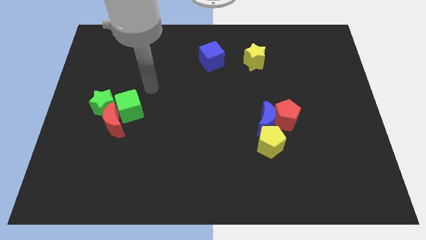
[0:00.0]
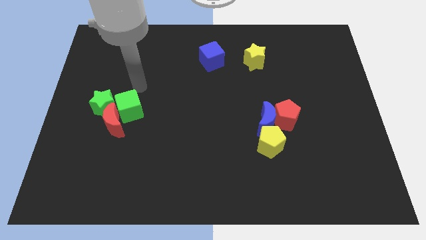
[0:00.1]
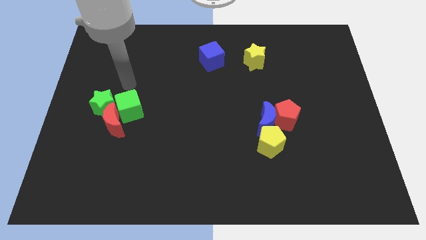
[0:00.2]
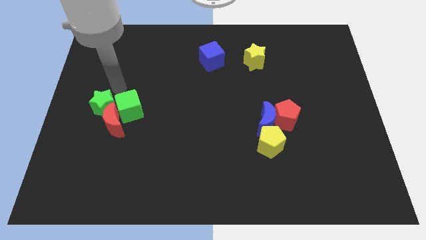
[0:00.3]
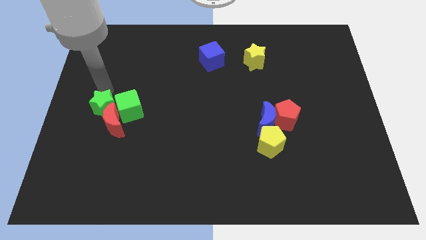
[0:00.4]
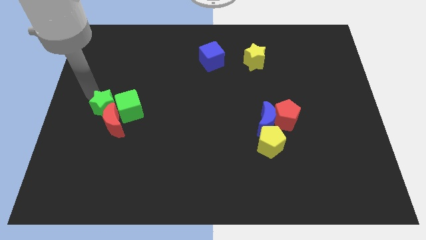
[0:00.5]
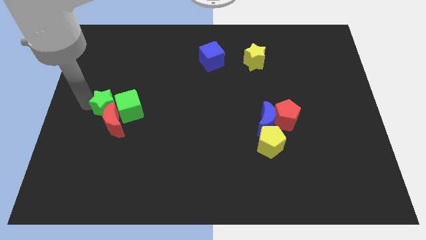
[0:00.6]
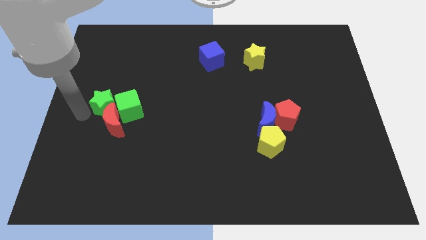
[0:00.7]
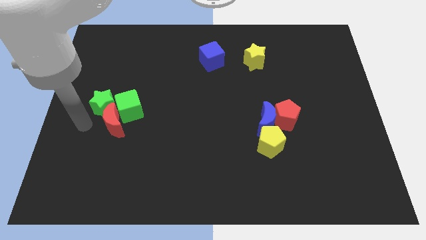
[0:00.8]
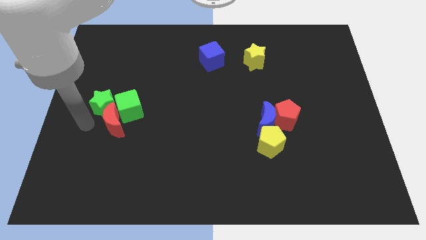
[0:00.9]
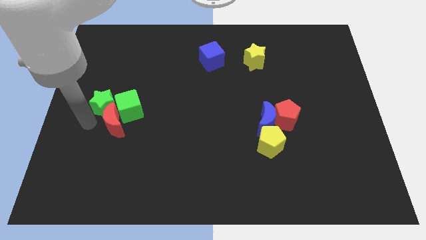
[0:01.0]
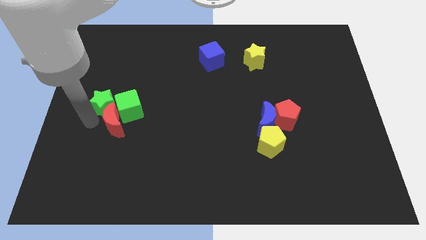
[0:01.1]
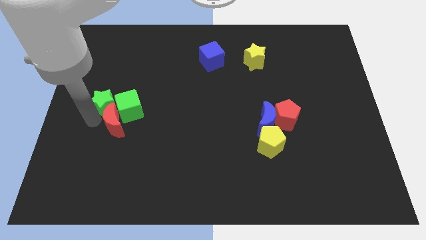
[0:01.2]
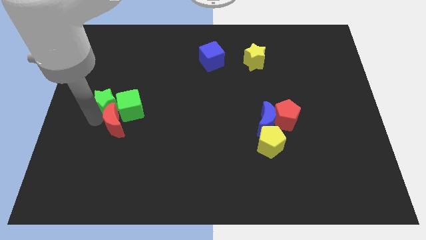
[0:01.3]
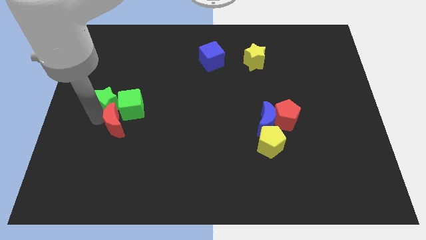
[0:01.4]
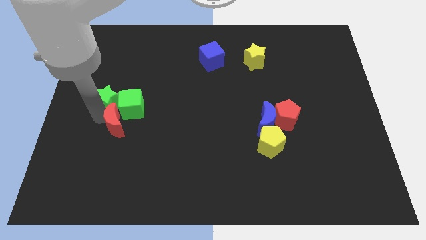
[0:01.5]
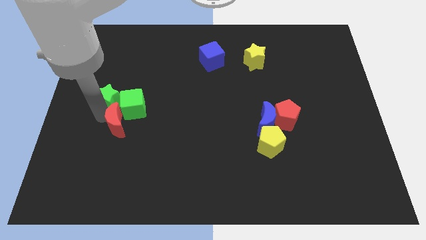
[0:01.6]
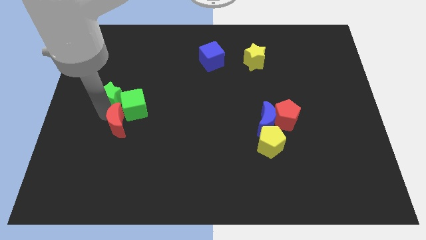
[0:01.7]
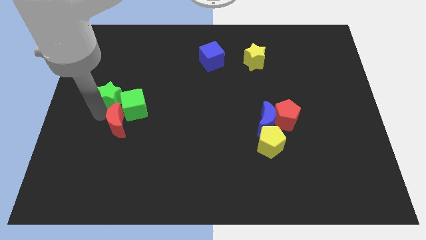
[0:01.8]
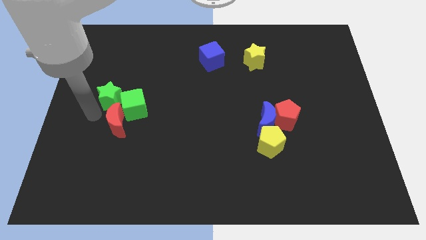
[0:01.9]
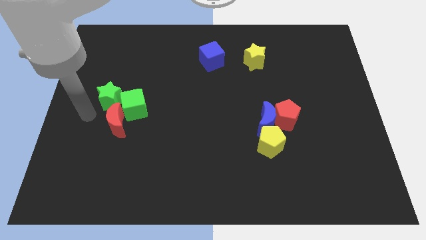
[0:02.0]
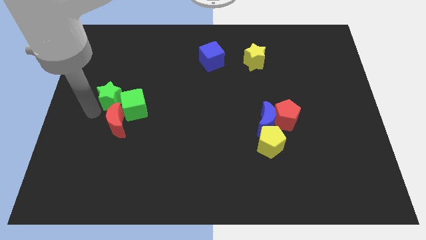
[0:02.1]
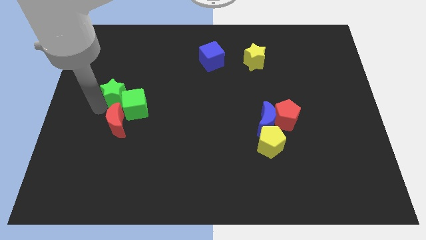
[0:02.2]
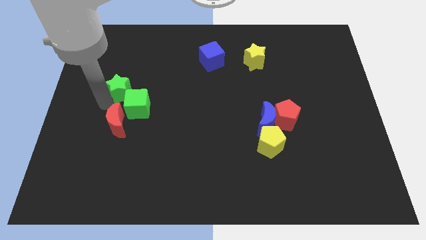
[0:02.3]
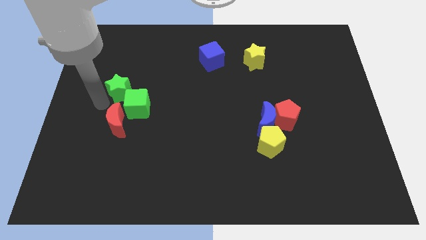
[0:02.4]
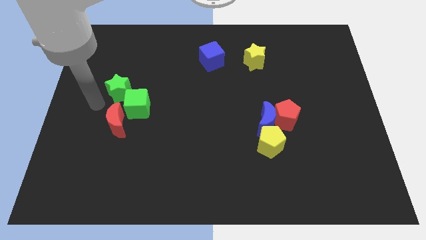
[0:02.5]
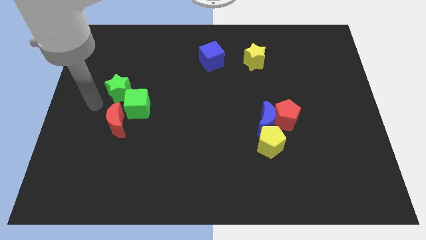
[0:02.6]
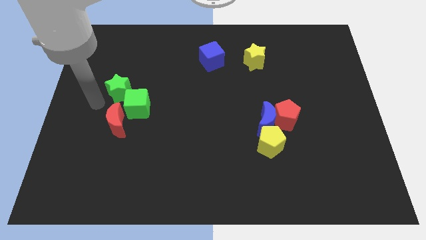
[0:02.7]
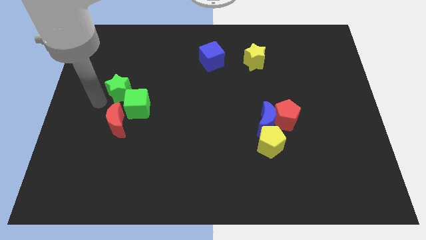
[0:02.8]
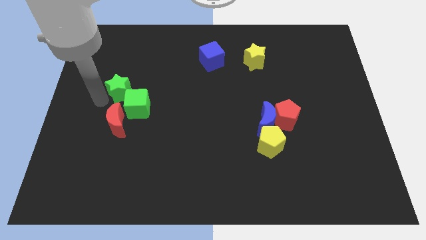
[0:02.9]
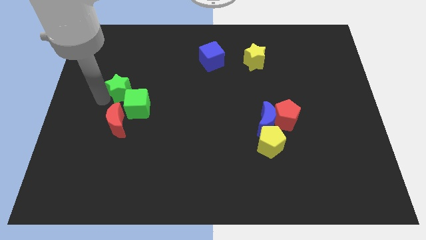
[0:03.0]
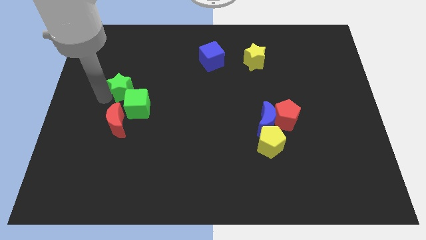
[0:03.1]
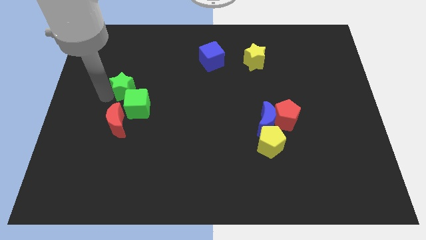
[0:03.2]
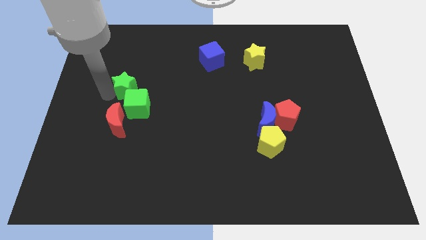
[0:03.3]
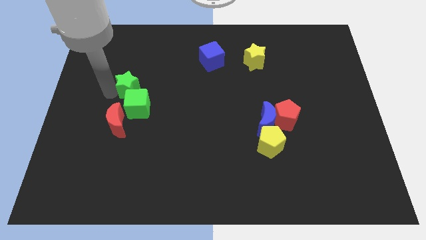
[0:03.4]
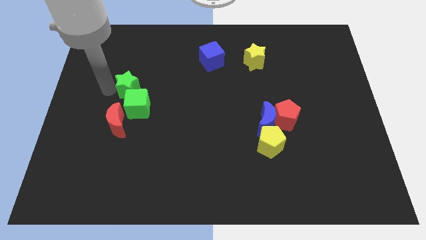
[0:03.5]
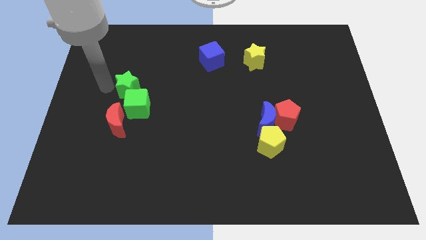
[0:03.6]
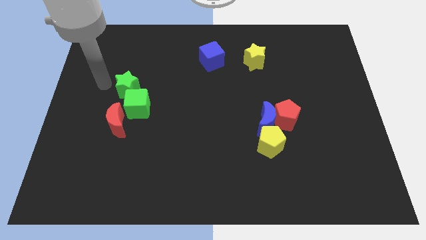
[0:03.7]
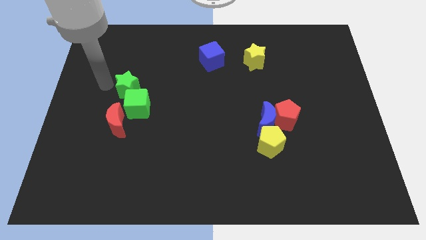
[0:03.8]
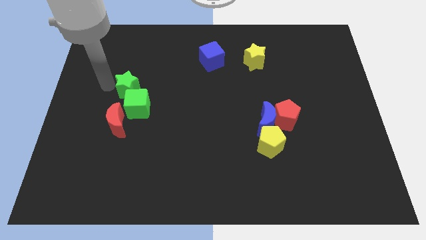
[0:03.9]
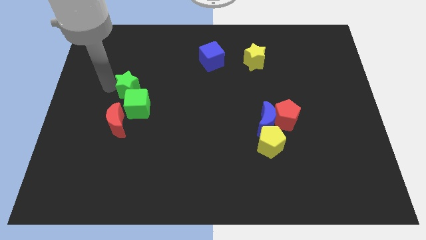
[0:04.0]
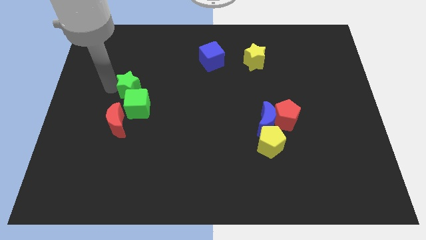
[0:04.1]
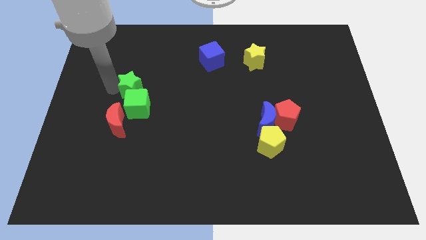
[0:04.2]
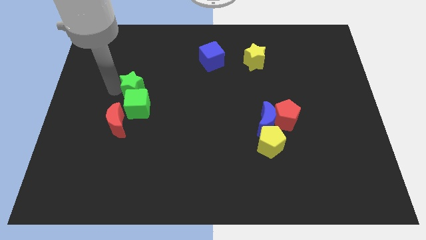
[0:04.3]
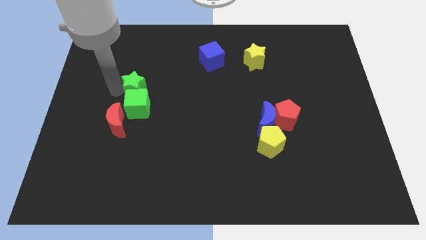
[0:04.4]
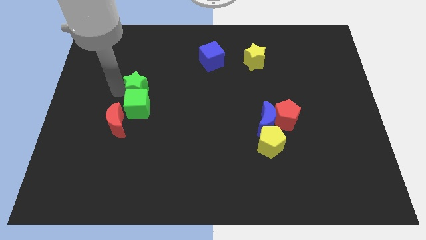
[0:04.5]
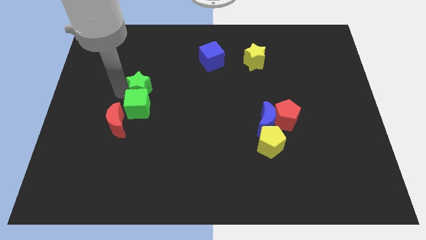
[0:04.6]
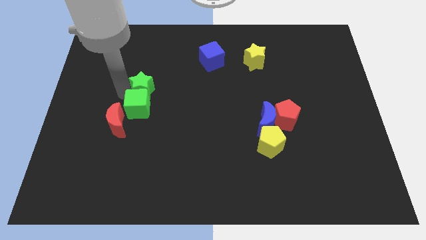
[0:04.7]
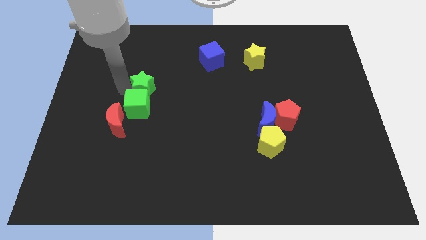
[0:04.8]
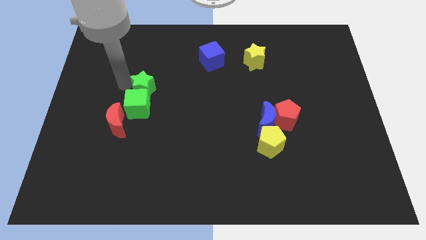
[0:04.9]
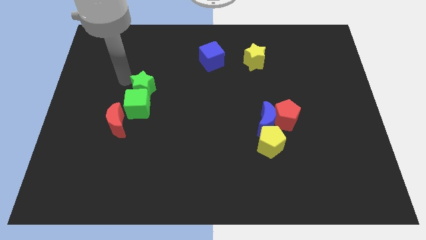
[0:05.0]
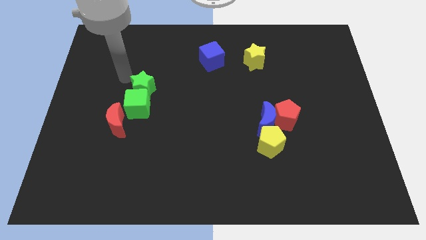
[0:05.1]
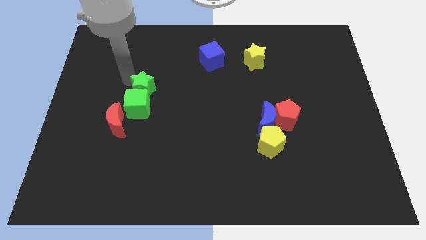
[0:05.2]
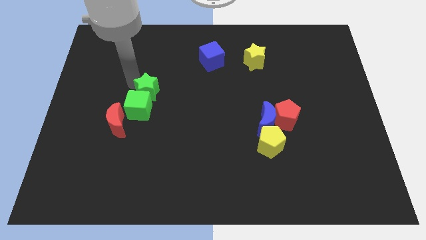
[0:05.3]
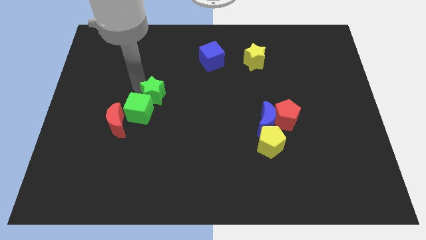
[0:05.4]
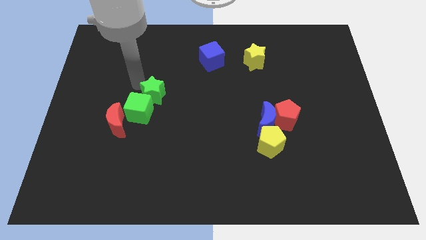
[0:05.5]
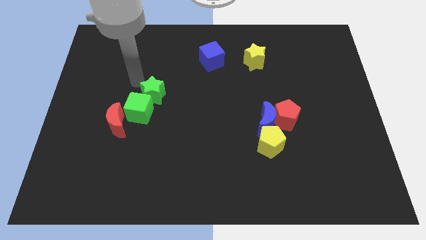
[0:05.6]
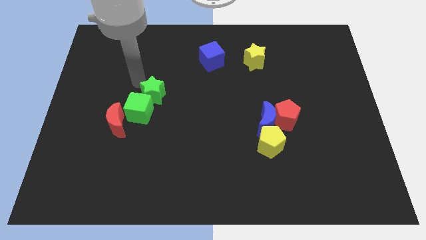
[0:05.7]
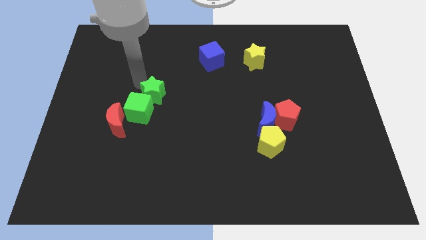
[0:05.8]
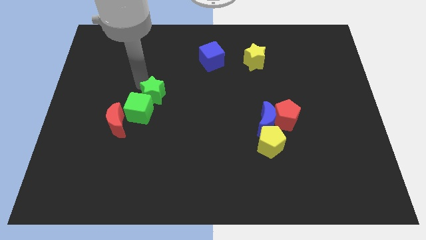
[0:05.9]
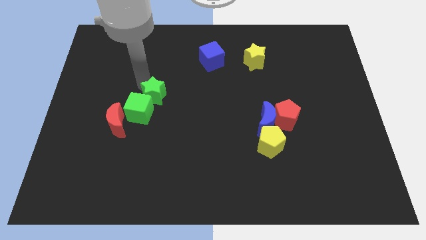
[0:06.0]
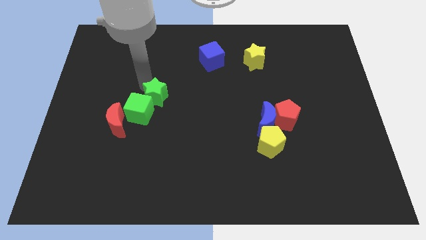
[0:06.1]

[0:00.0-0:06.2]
push the green star to the right side of the green cube

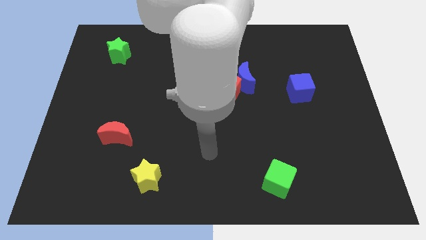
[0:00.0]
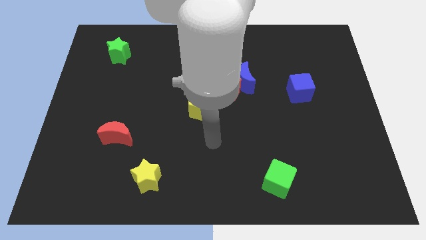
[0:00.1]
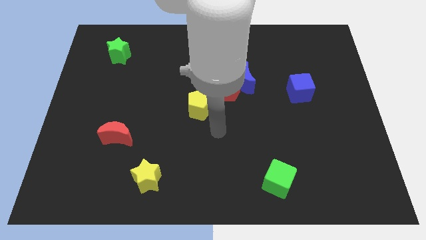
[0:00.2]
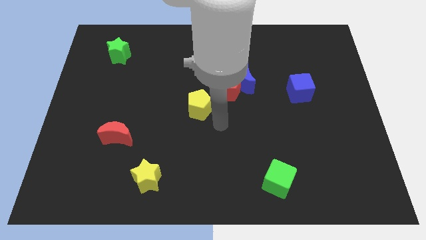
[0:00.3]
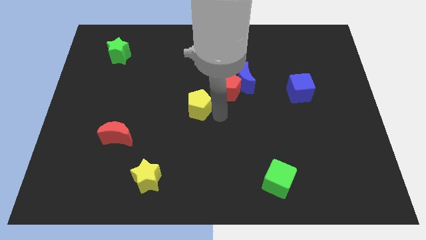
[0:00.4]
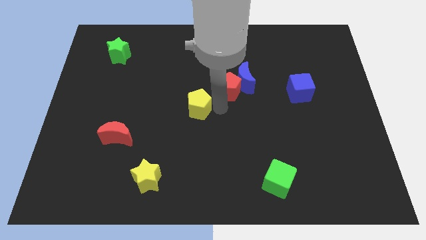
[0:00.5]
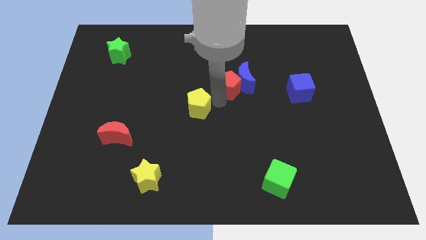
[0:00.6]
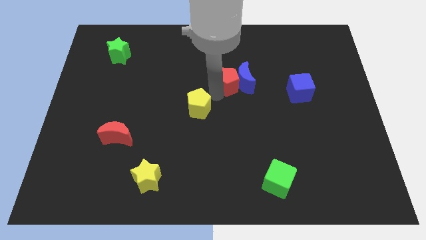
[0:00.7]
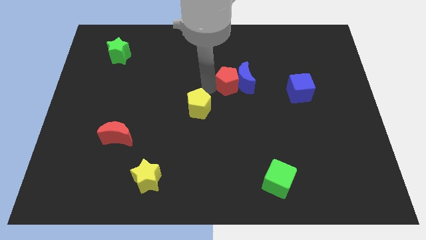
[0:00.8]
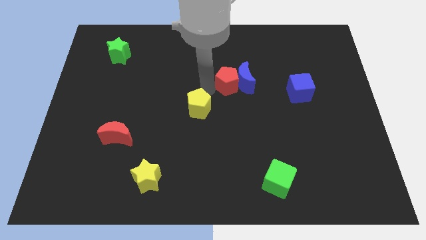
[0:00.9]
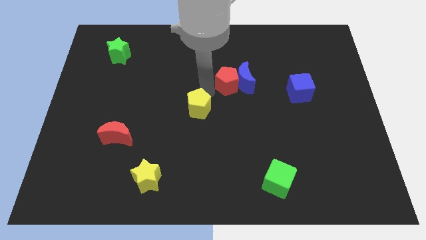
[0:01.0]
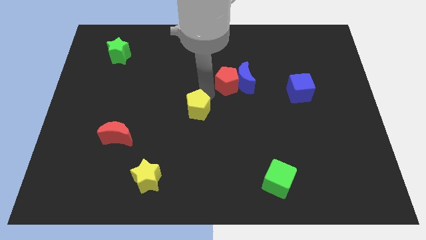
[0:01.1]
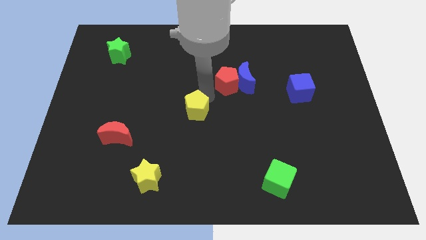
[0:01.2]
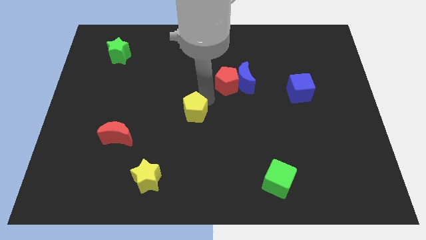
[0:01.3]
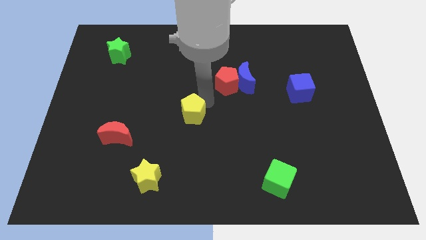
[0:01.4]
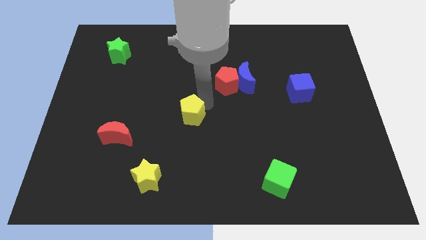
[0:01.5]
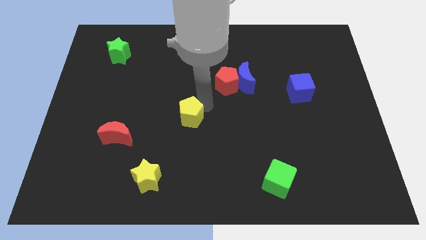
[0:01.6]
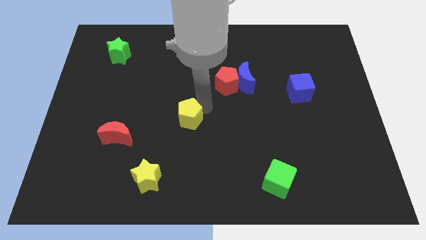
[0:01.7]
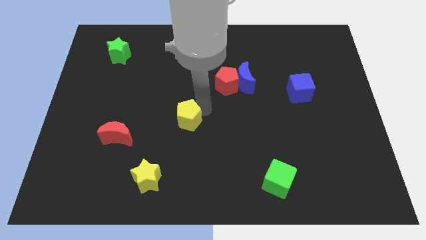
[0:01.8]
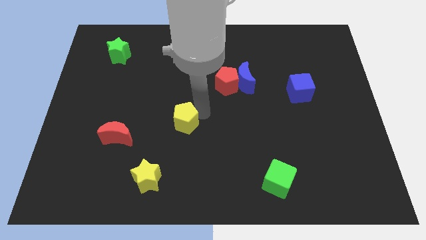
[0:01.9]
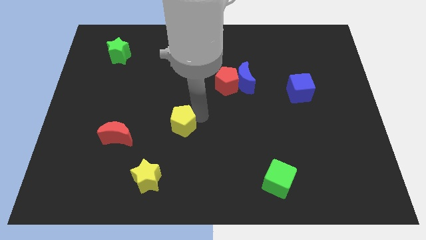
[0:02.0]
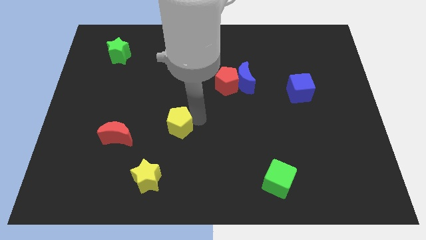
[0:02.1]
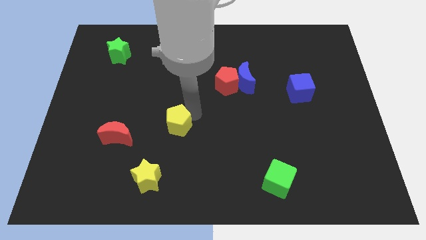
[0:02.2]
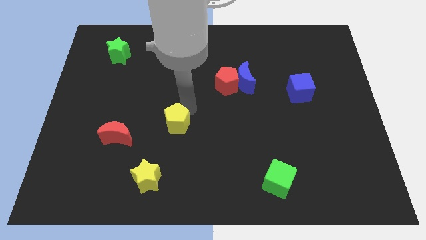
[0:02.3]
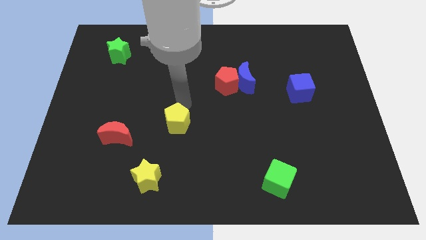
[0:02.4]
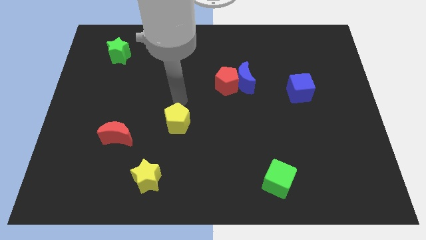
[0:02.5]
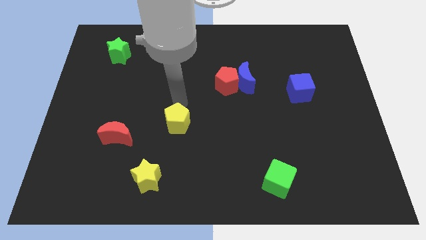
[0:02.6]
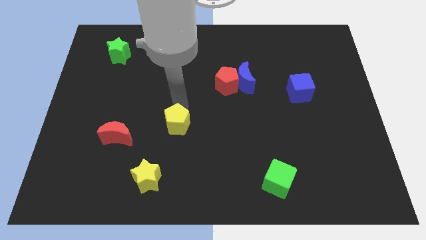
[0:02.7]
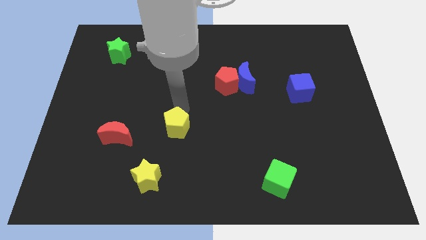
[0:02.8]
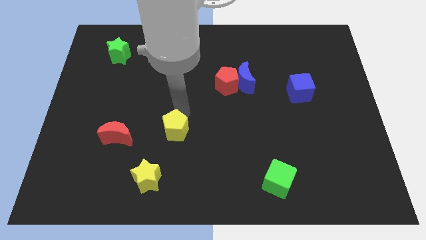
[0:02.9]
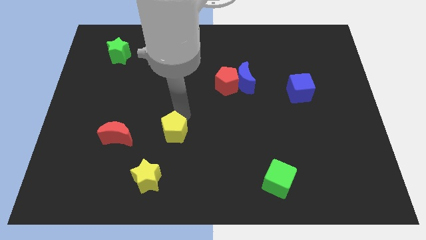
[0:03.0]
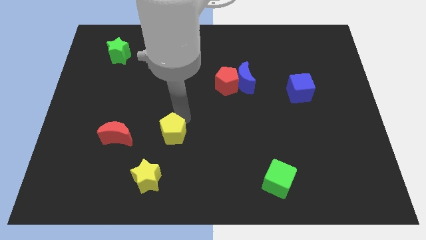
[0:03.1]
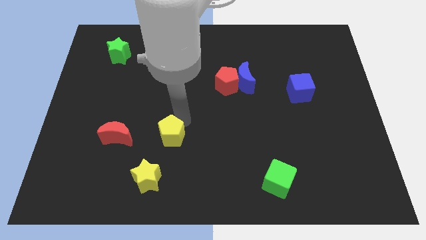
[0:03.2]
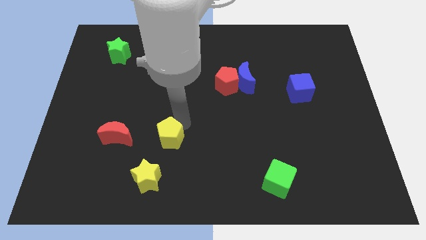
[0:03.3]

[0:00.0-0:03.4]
slide the yellow pentagon to the top right side of the yellow star
